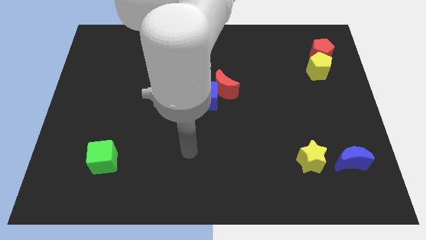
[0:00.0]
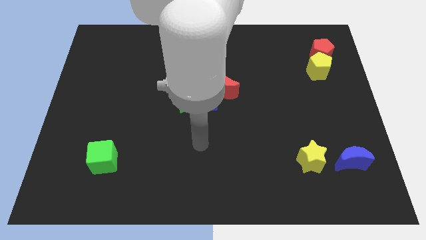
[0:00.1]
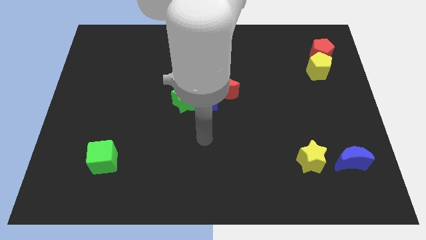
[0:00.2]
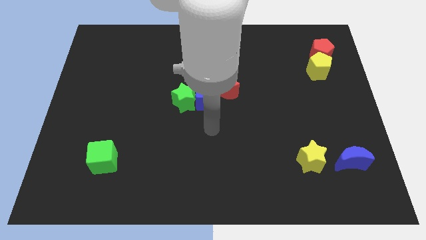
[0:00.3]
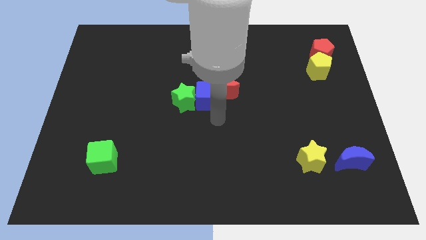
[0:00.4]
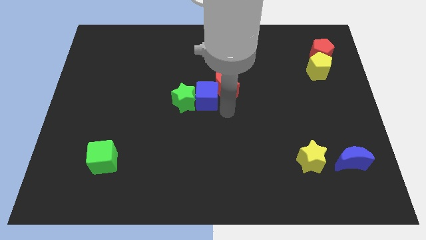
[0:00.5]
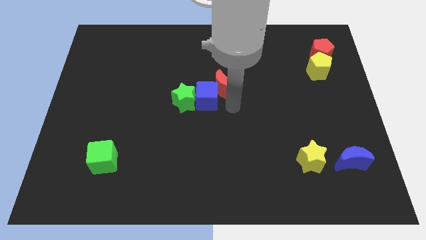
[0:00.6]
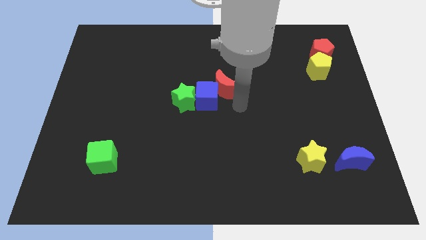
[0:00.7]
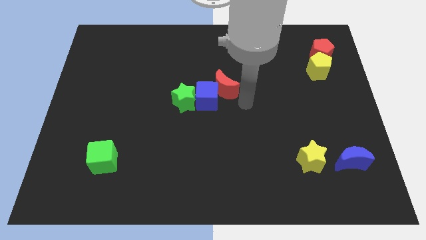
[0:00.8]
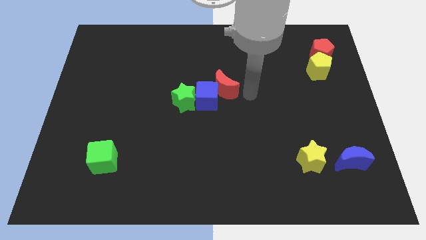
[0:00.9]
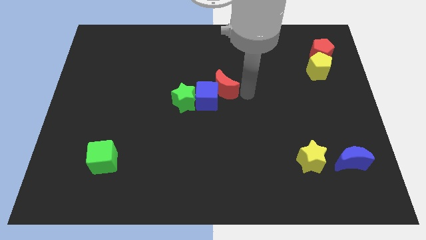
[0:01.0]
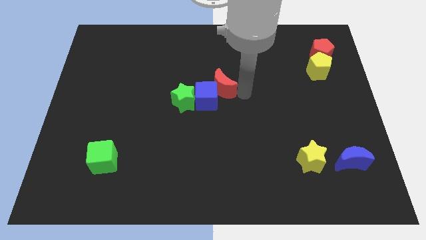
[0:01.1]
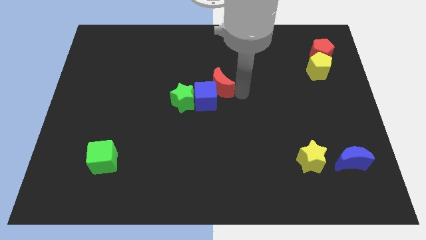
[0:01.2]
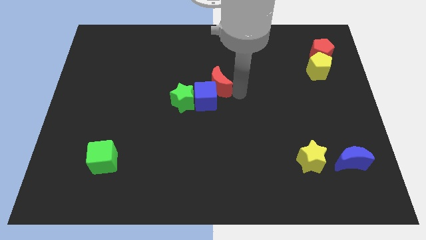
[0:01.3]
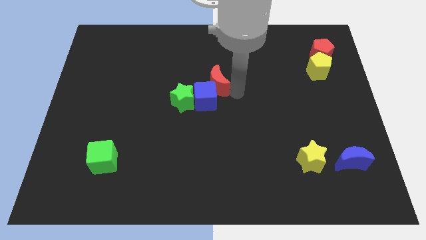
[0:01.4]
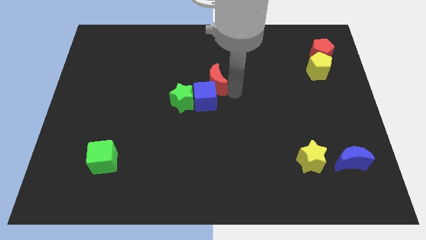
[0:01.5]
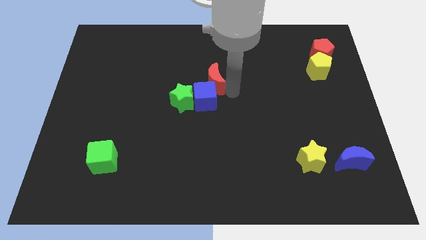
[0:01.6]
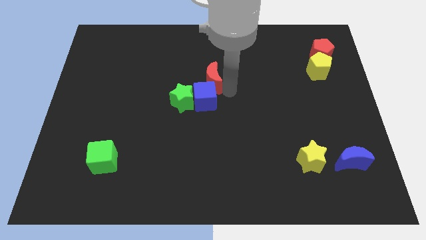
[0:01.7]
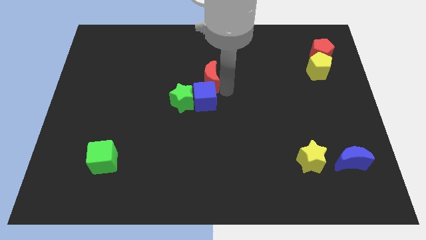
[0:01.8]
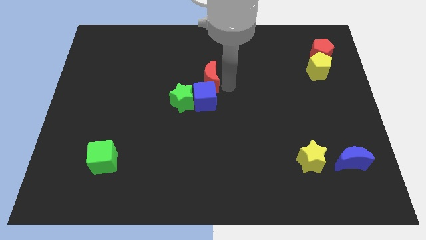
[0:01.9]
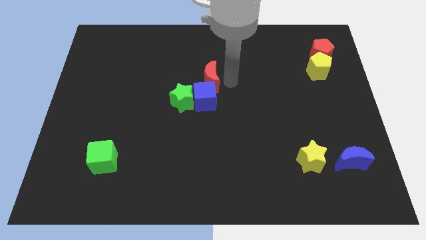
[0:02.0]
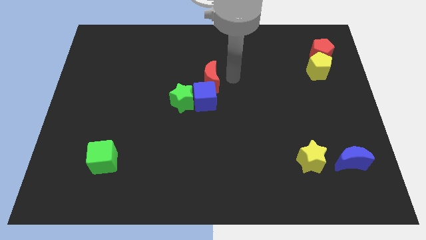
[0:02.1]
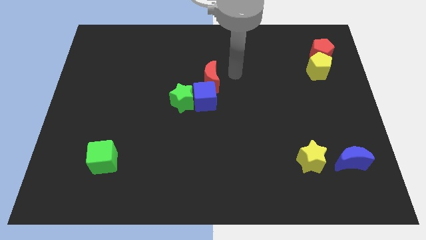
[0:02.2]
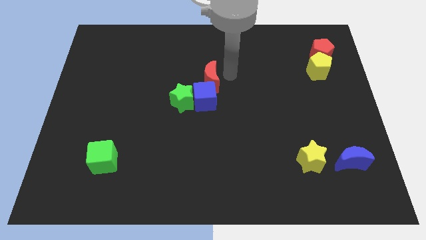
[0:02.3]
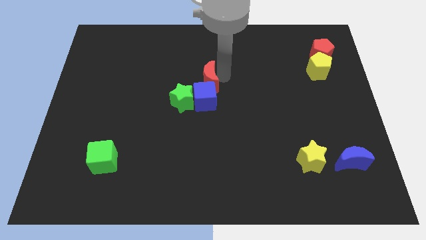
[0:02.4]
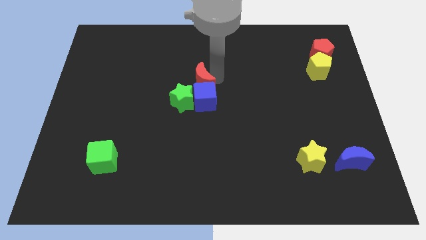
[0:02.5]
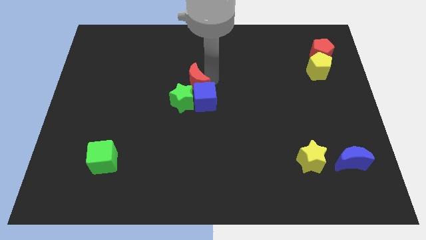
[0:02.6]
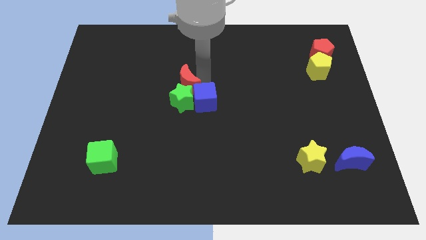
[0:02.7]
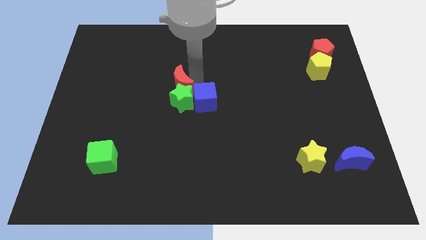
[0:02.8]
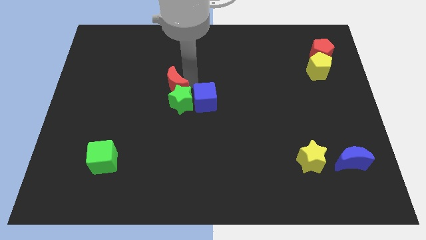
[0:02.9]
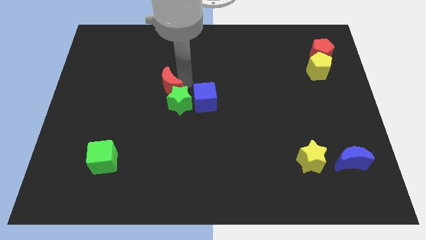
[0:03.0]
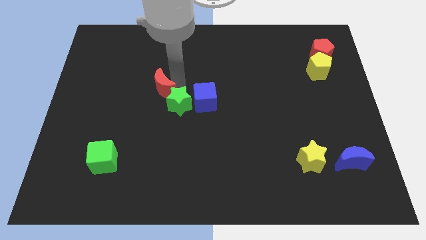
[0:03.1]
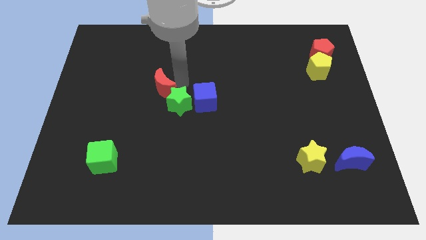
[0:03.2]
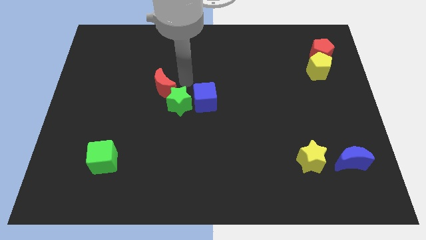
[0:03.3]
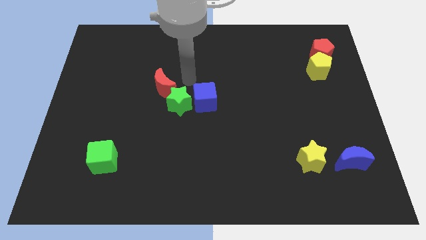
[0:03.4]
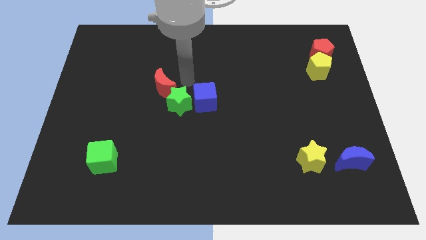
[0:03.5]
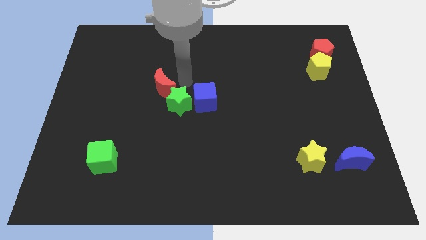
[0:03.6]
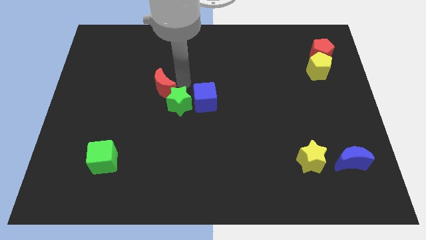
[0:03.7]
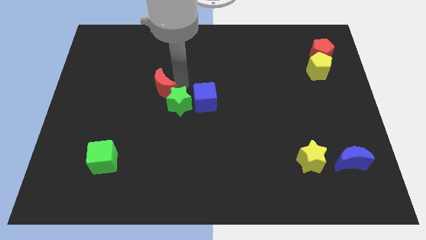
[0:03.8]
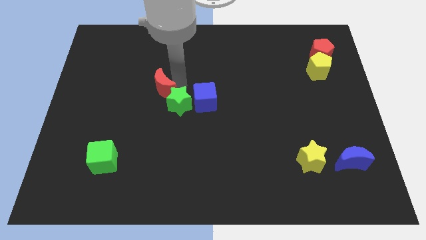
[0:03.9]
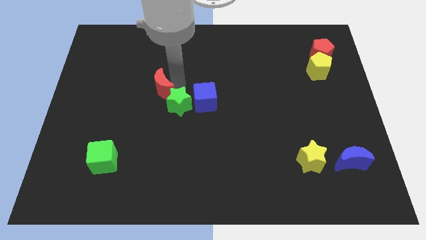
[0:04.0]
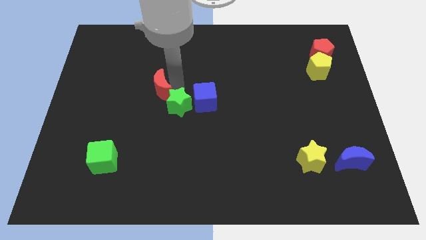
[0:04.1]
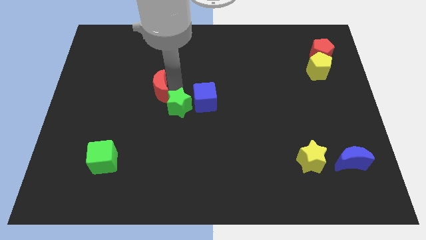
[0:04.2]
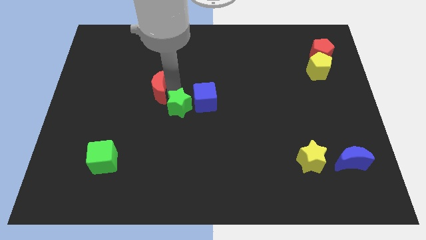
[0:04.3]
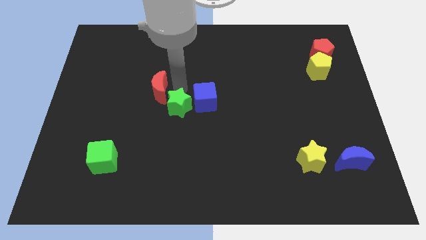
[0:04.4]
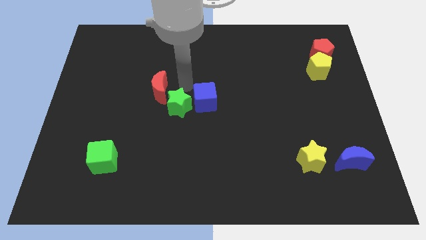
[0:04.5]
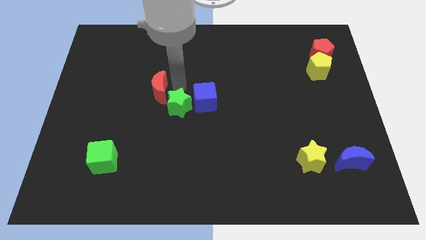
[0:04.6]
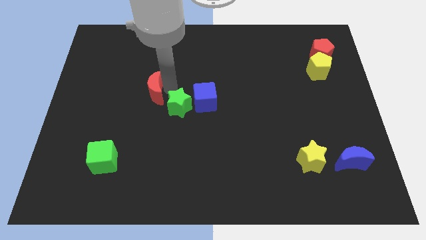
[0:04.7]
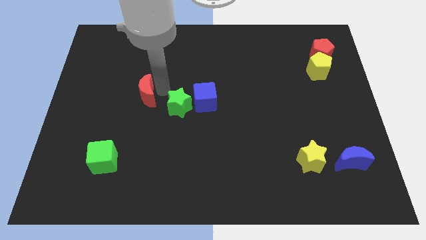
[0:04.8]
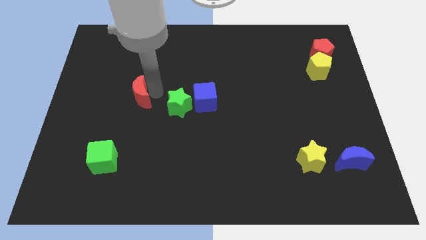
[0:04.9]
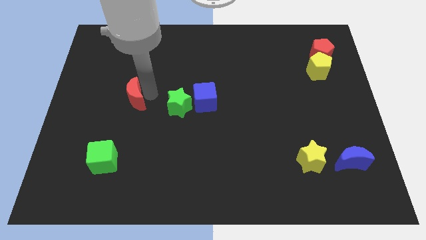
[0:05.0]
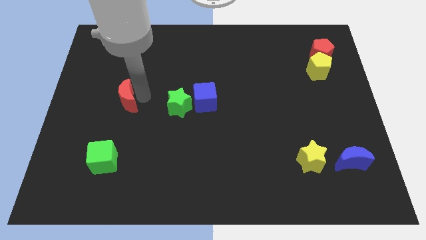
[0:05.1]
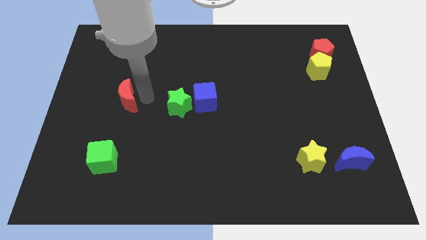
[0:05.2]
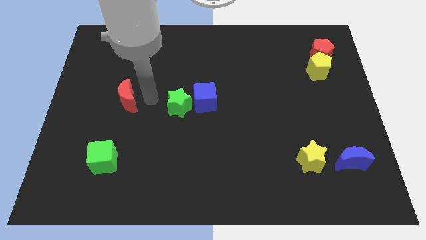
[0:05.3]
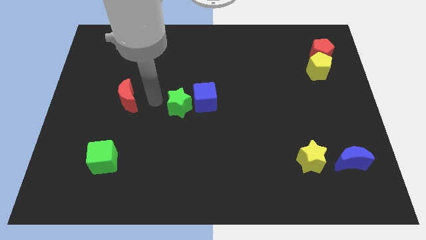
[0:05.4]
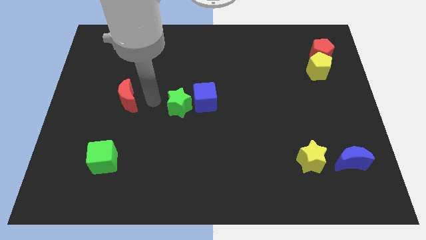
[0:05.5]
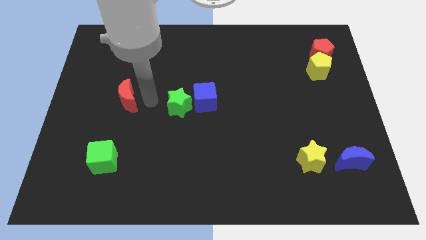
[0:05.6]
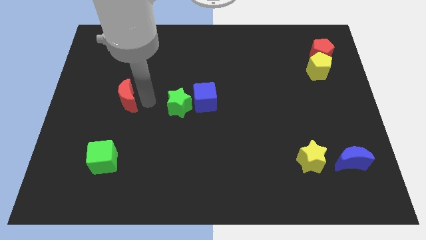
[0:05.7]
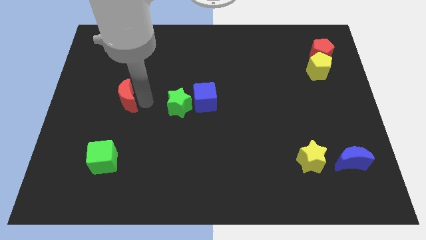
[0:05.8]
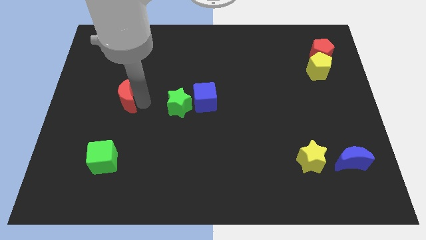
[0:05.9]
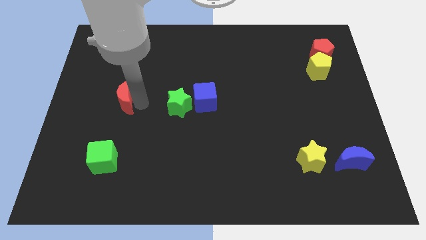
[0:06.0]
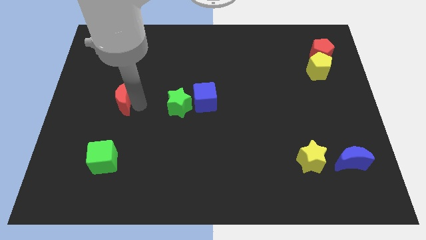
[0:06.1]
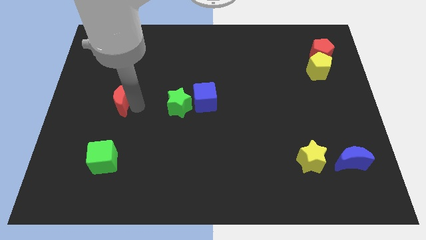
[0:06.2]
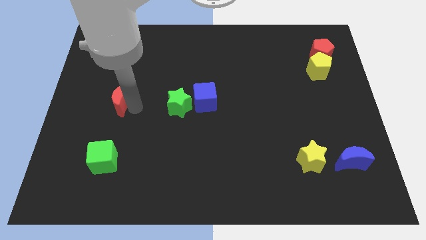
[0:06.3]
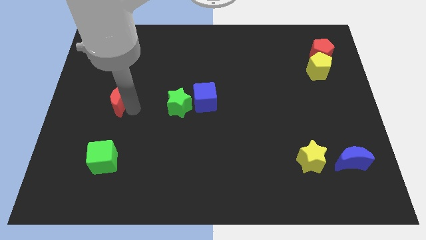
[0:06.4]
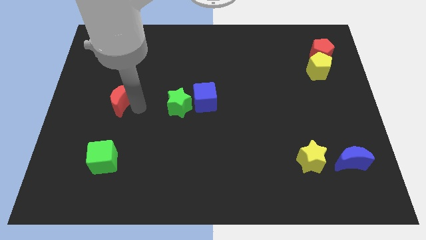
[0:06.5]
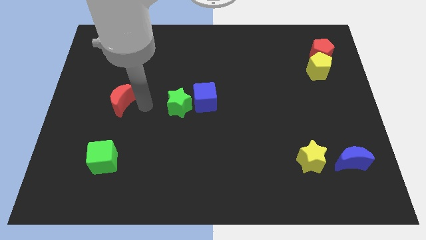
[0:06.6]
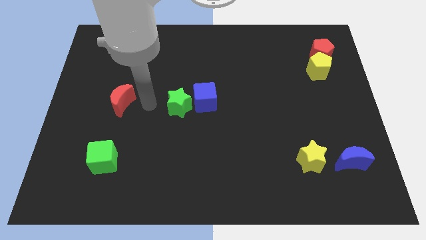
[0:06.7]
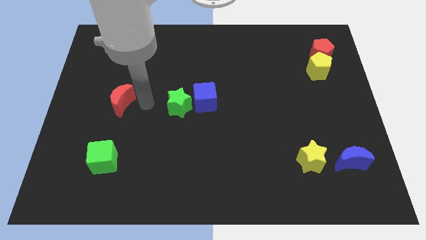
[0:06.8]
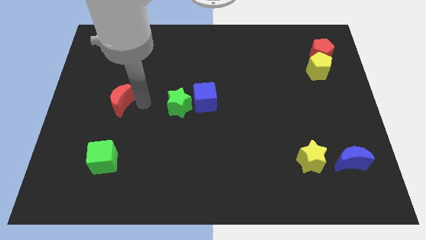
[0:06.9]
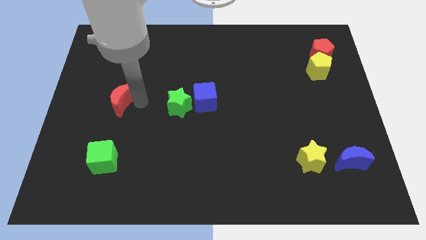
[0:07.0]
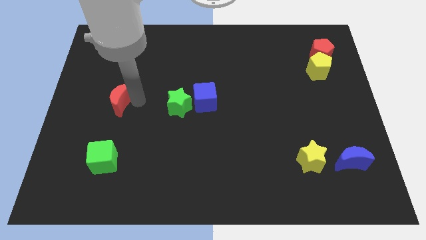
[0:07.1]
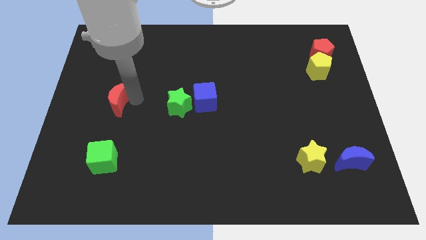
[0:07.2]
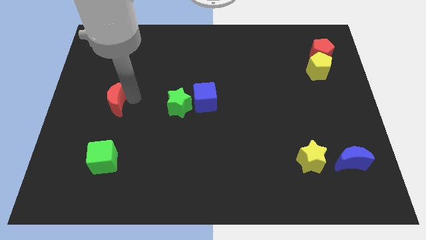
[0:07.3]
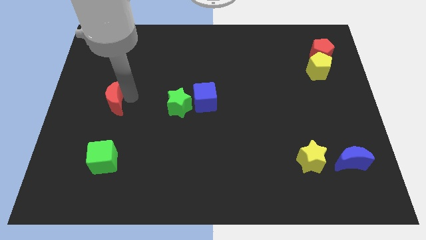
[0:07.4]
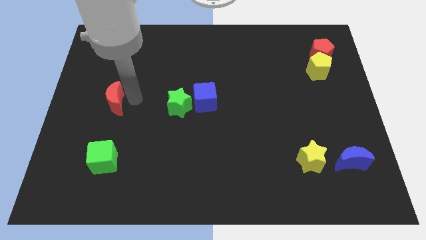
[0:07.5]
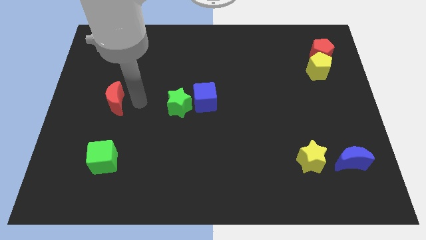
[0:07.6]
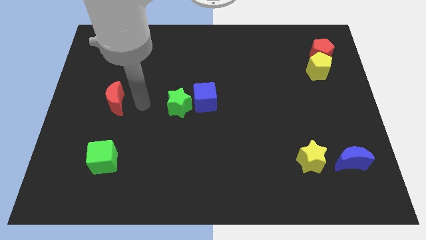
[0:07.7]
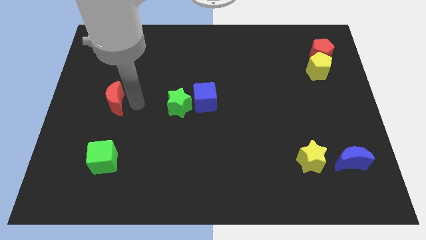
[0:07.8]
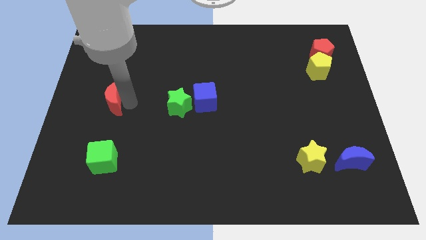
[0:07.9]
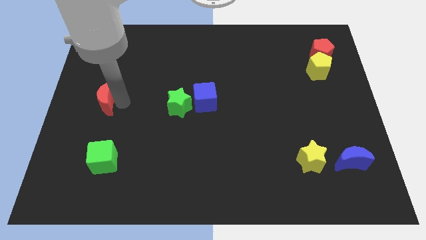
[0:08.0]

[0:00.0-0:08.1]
slide the red moon to the center left
